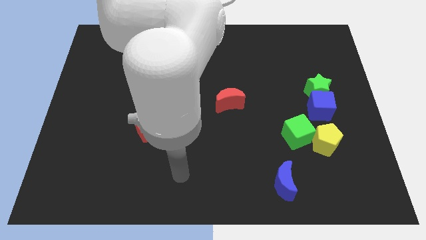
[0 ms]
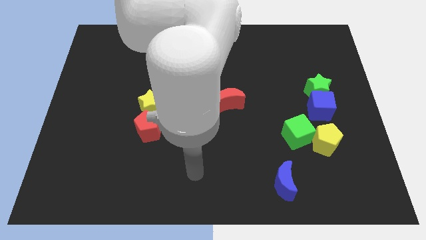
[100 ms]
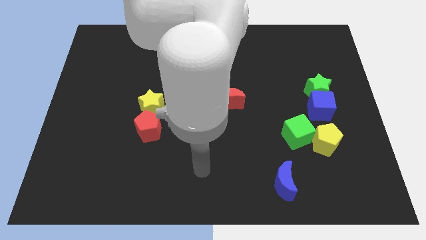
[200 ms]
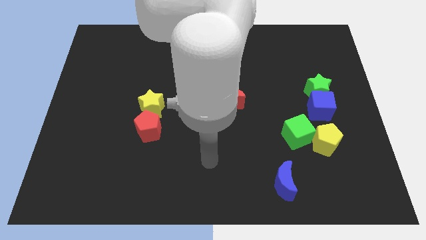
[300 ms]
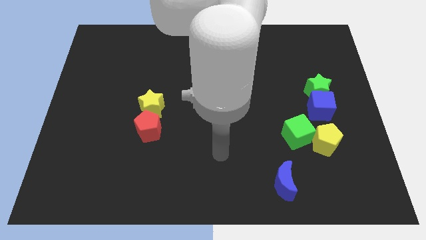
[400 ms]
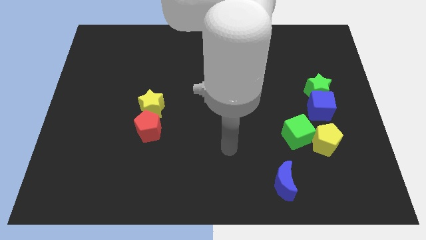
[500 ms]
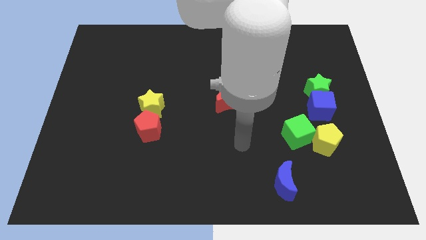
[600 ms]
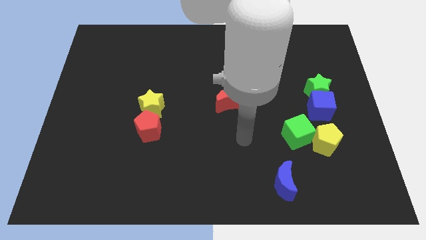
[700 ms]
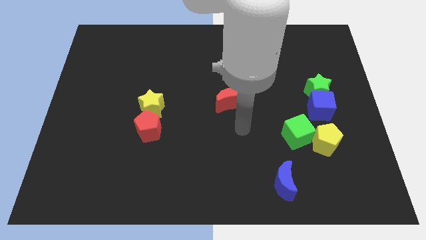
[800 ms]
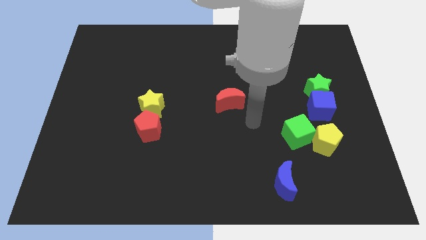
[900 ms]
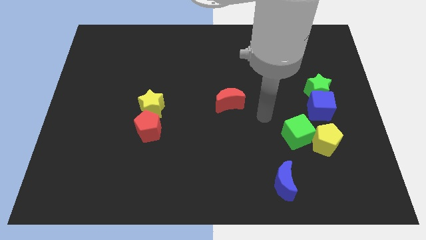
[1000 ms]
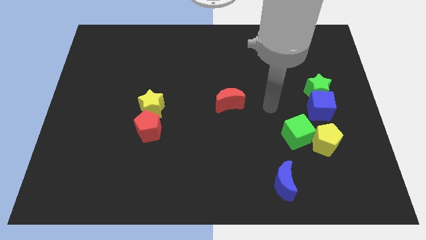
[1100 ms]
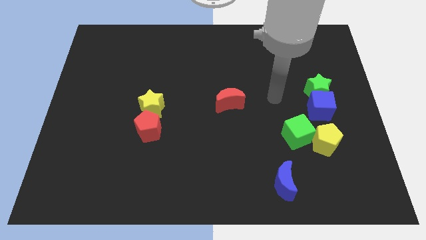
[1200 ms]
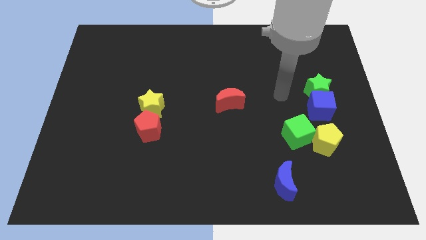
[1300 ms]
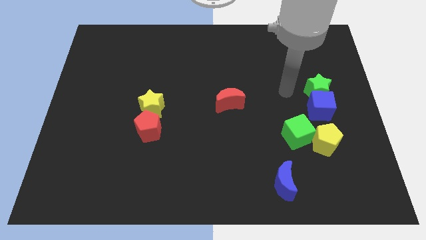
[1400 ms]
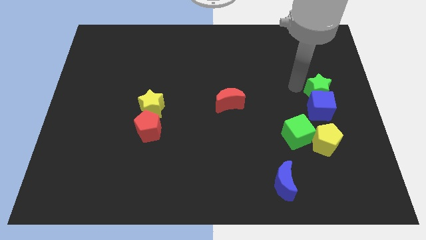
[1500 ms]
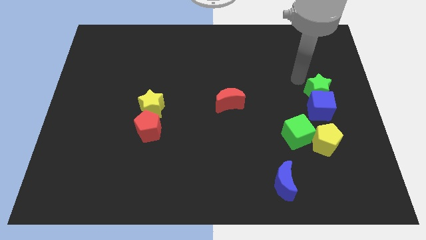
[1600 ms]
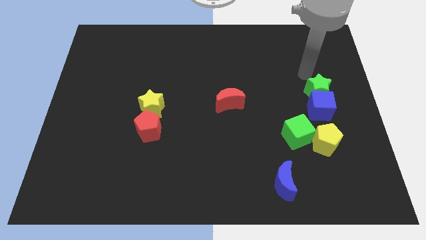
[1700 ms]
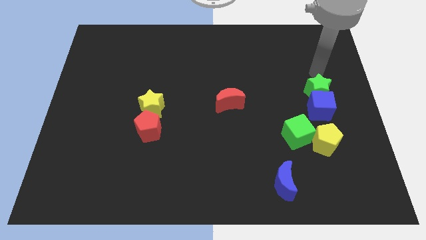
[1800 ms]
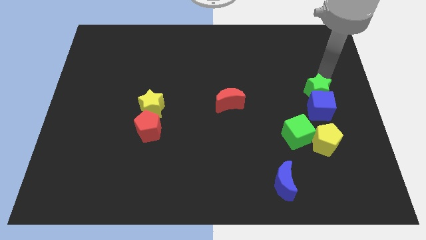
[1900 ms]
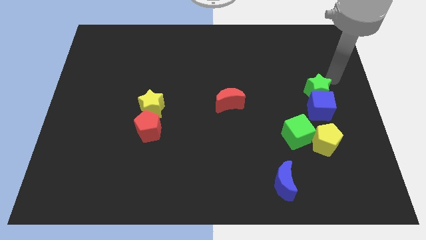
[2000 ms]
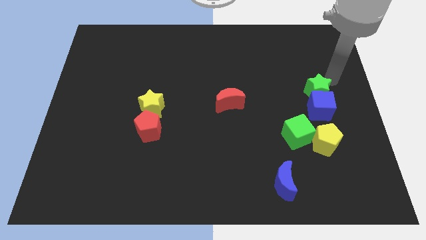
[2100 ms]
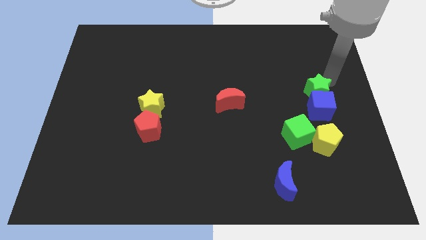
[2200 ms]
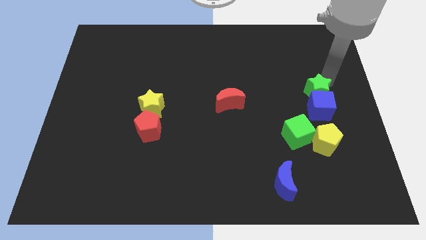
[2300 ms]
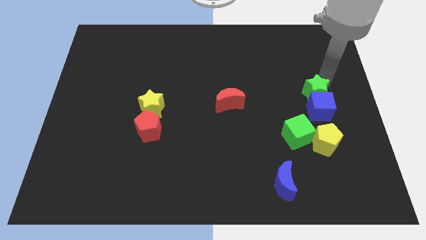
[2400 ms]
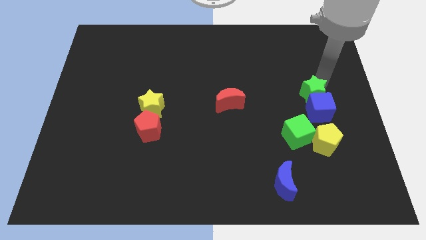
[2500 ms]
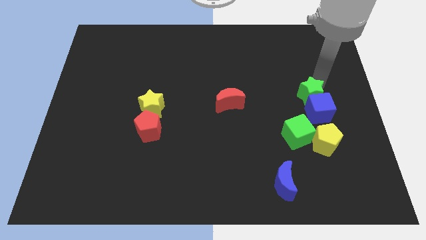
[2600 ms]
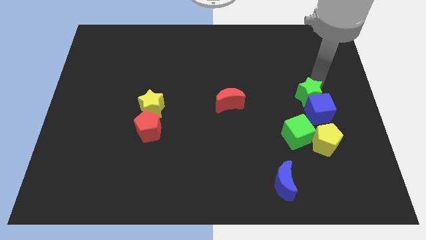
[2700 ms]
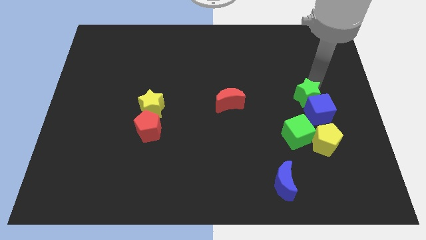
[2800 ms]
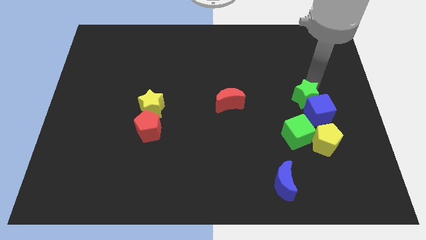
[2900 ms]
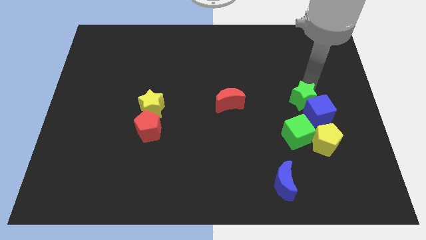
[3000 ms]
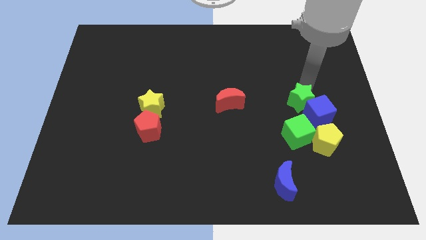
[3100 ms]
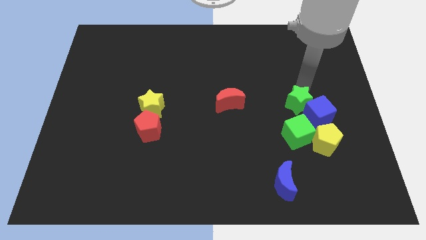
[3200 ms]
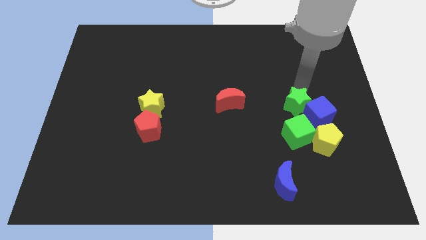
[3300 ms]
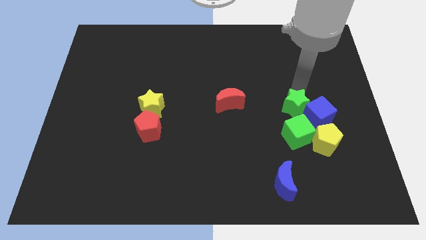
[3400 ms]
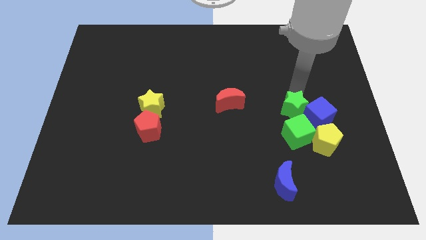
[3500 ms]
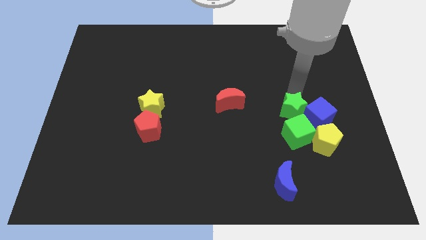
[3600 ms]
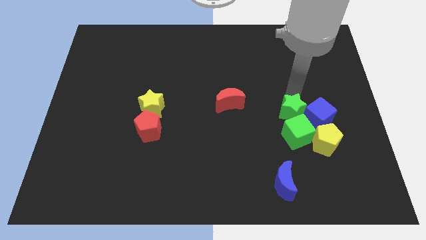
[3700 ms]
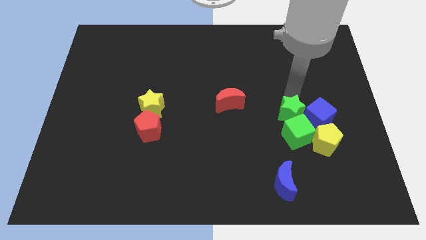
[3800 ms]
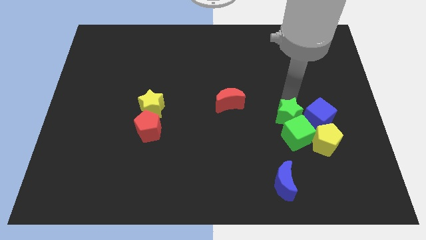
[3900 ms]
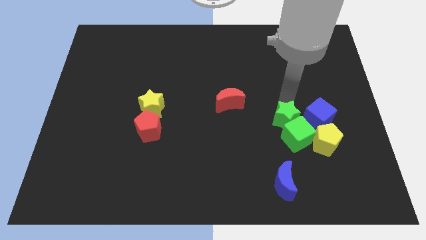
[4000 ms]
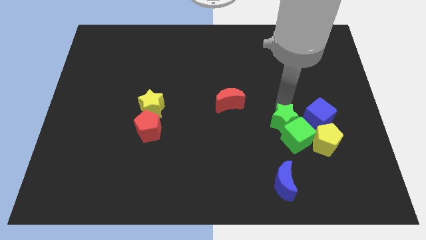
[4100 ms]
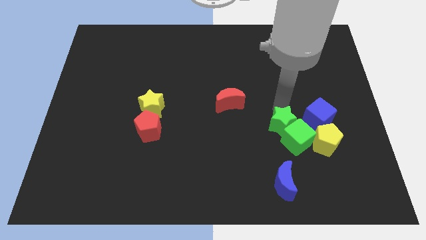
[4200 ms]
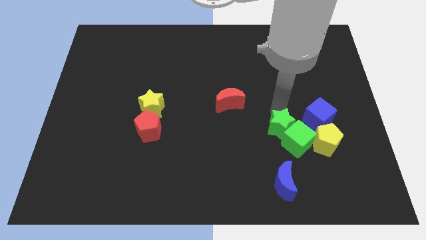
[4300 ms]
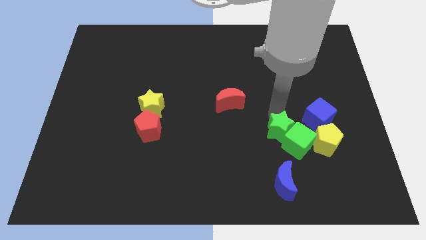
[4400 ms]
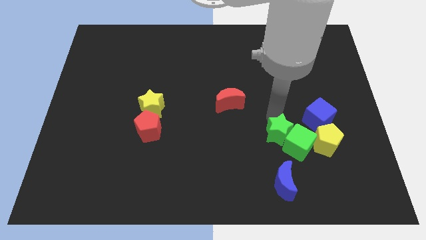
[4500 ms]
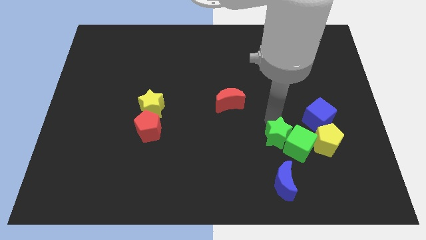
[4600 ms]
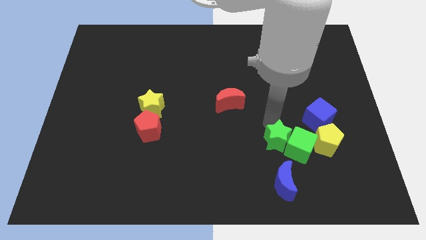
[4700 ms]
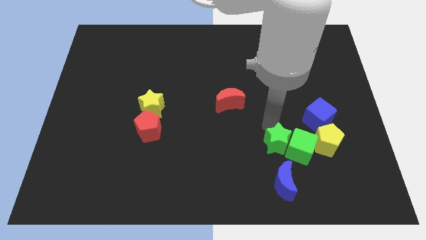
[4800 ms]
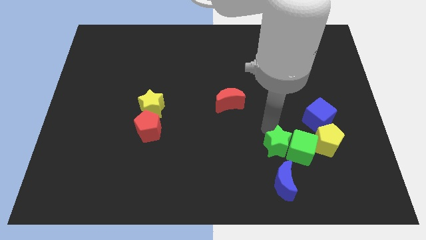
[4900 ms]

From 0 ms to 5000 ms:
move the green star to the bottom left side of the green cube

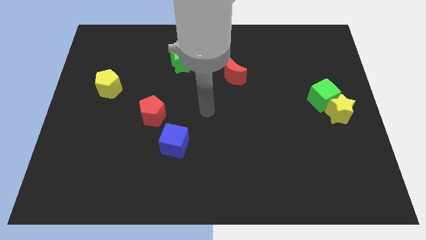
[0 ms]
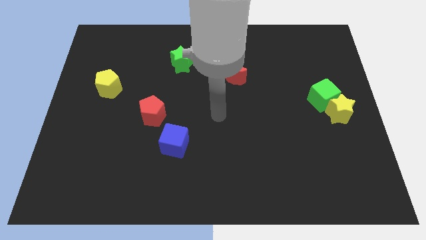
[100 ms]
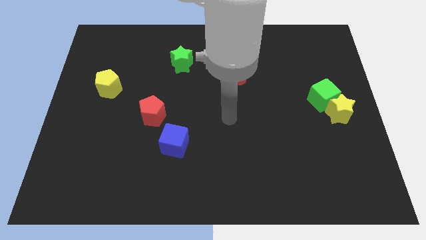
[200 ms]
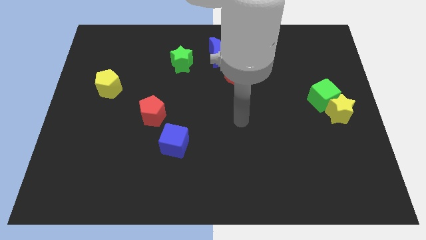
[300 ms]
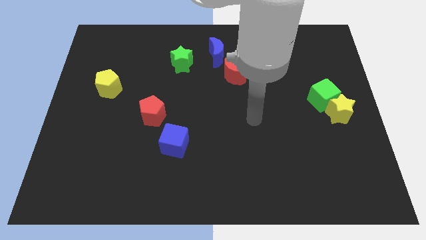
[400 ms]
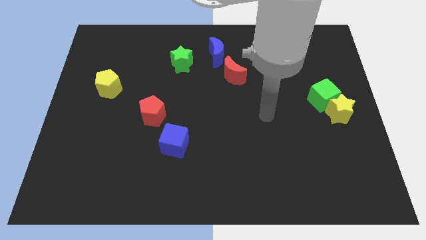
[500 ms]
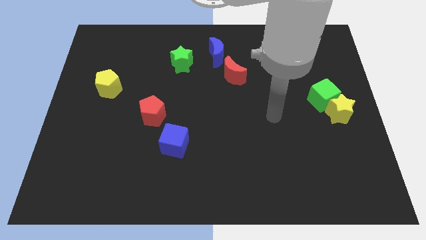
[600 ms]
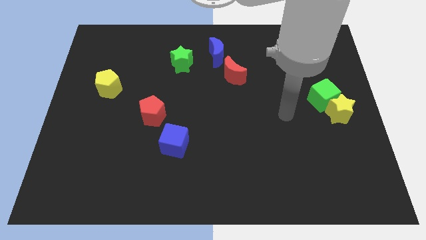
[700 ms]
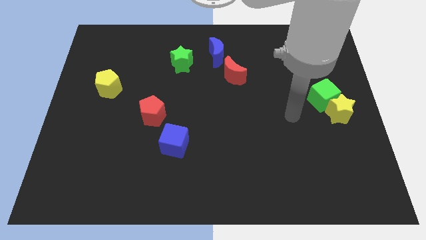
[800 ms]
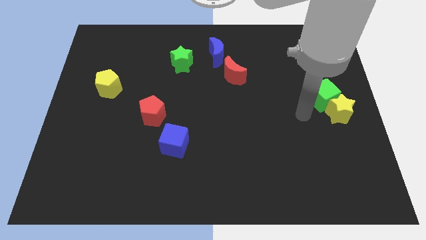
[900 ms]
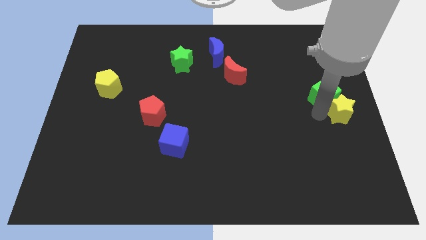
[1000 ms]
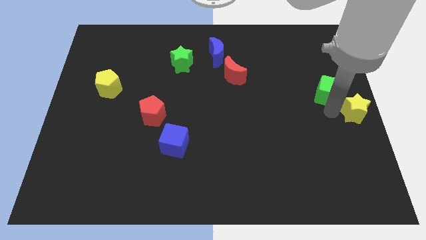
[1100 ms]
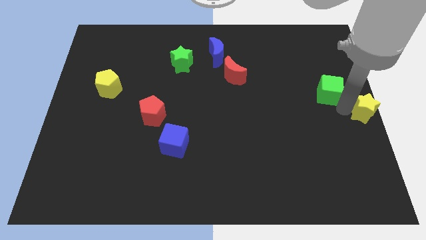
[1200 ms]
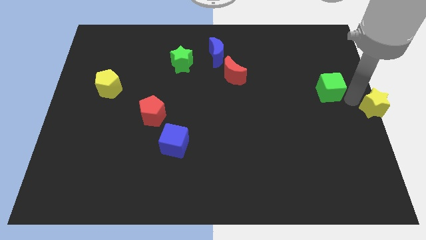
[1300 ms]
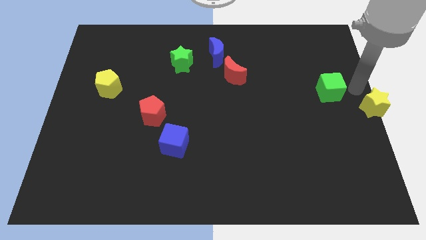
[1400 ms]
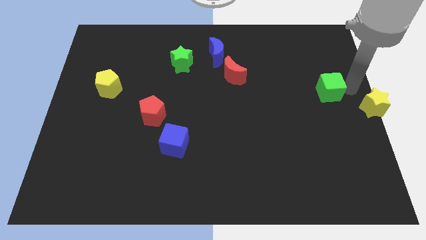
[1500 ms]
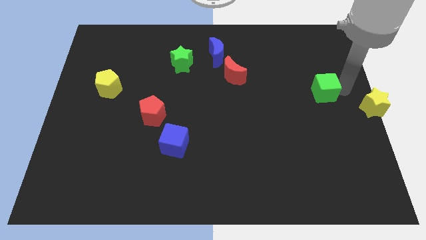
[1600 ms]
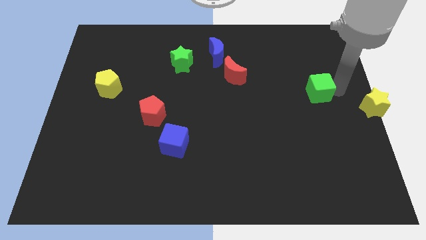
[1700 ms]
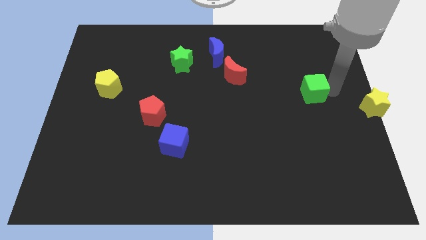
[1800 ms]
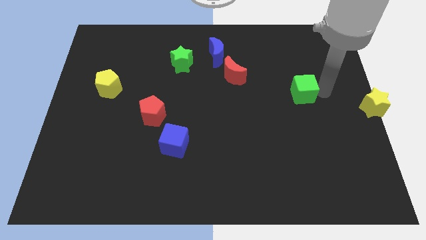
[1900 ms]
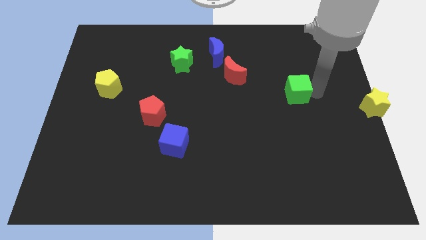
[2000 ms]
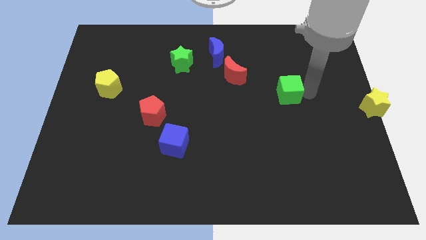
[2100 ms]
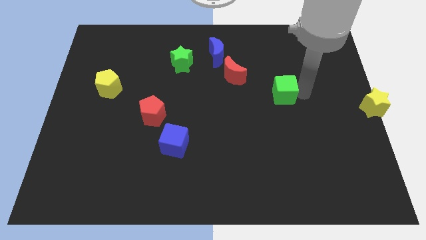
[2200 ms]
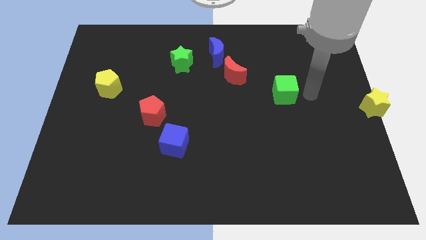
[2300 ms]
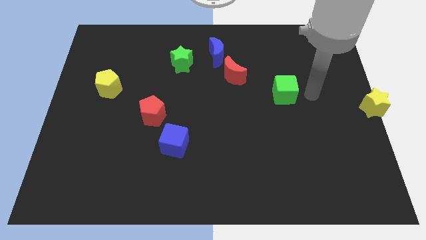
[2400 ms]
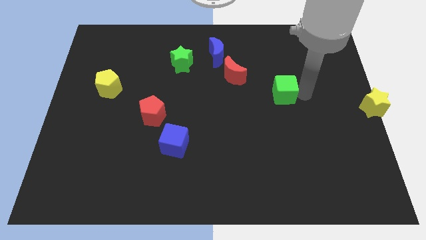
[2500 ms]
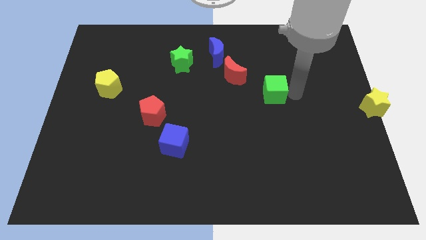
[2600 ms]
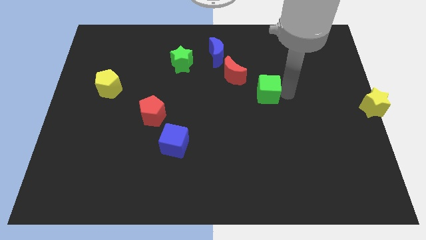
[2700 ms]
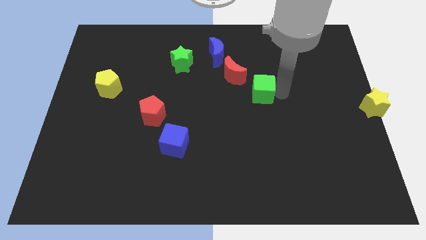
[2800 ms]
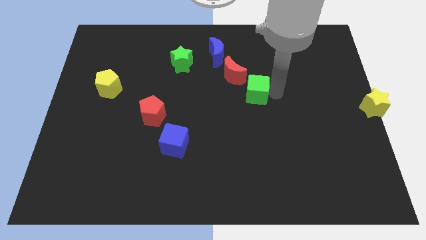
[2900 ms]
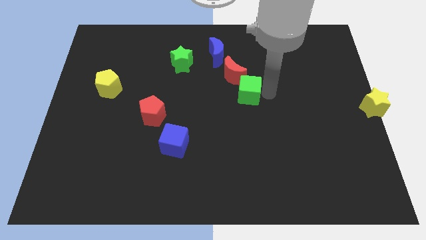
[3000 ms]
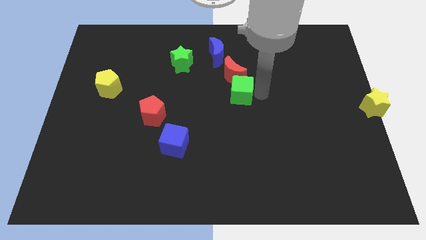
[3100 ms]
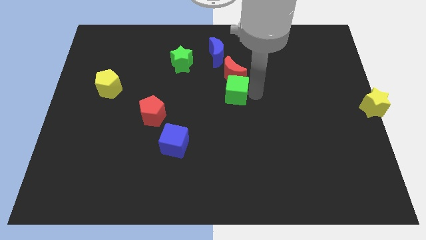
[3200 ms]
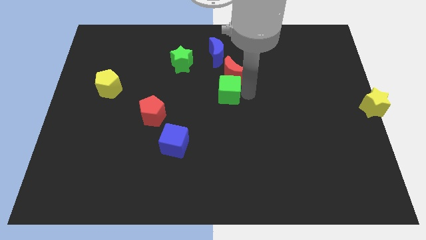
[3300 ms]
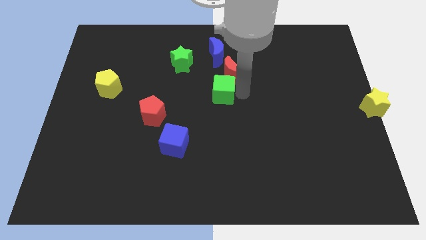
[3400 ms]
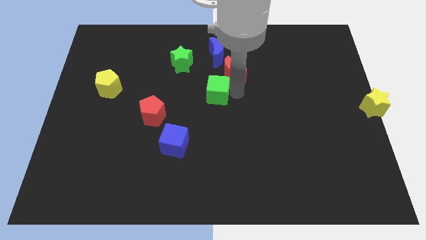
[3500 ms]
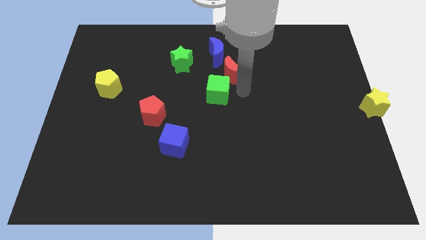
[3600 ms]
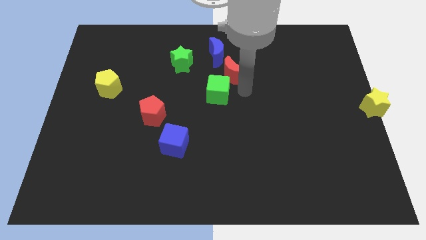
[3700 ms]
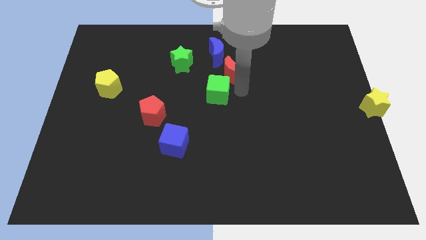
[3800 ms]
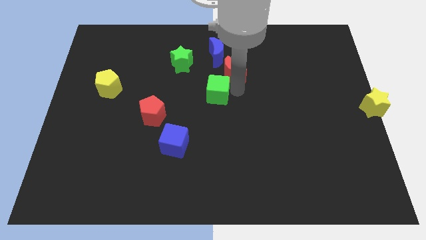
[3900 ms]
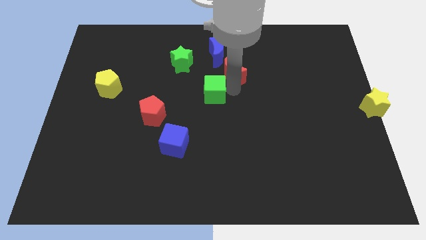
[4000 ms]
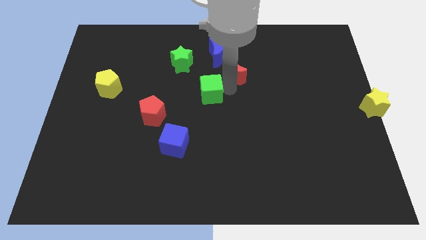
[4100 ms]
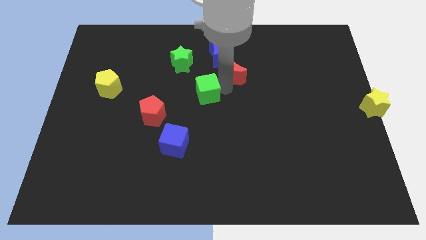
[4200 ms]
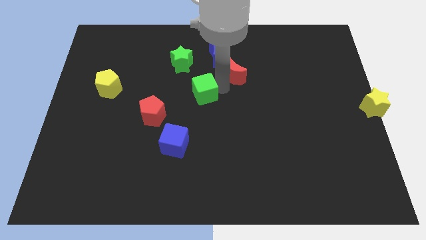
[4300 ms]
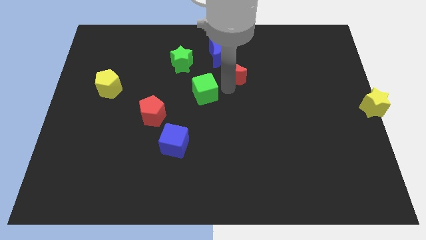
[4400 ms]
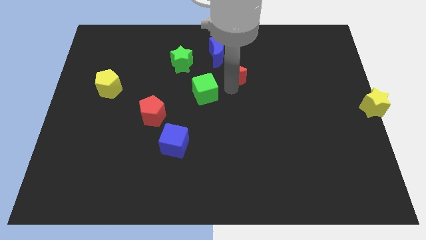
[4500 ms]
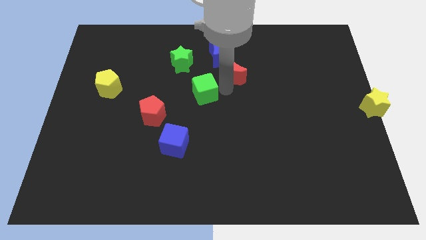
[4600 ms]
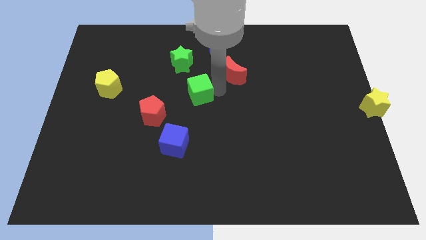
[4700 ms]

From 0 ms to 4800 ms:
push the green cube diagonally up and to the right of the red pentagon
